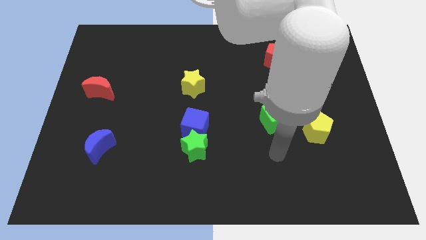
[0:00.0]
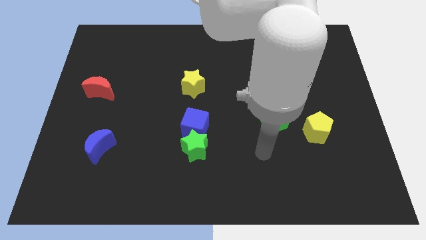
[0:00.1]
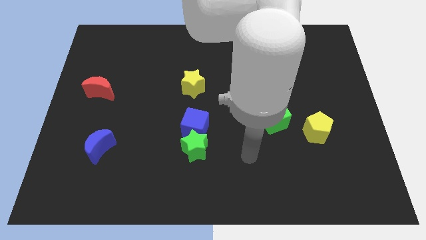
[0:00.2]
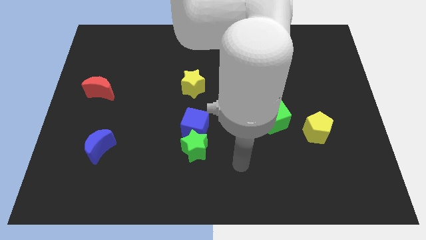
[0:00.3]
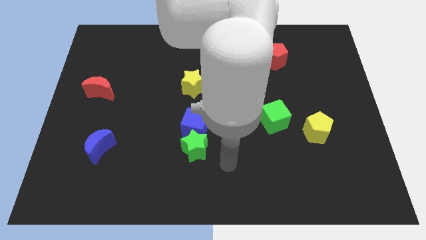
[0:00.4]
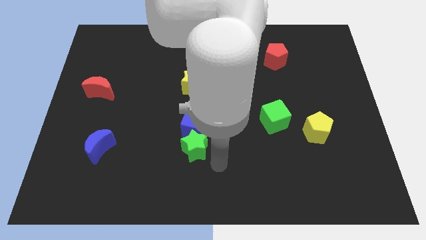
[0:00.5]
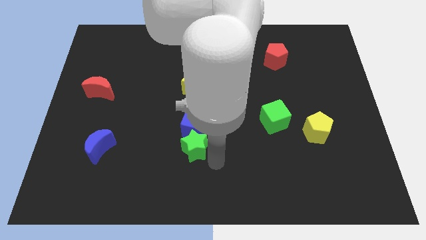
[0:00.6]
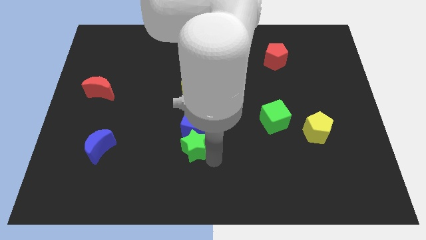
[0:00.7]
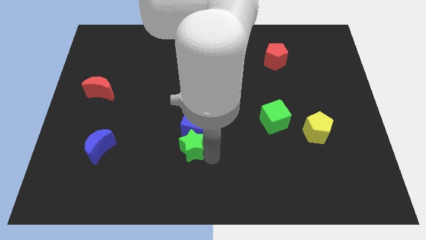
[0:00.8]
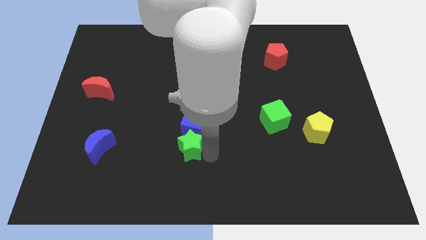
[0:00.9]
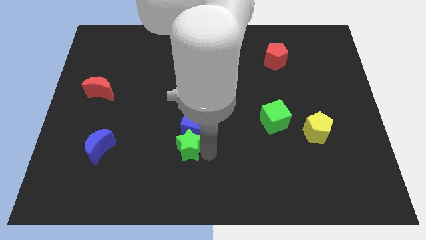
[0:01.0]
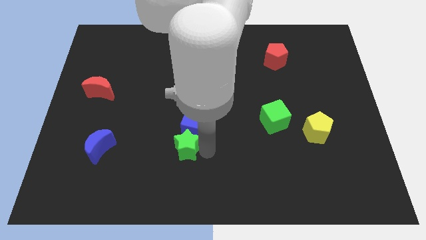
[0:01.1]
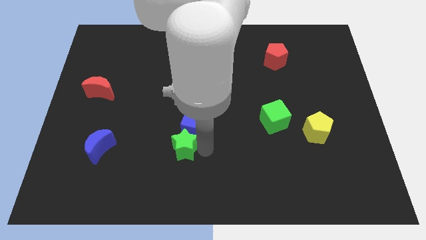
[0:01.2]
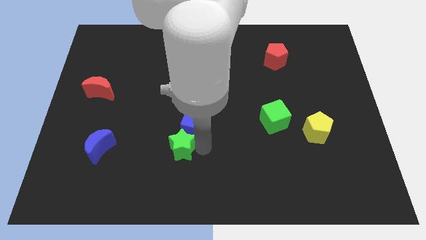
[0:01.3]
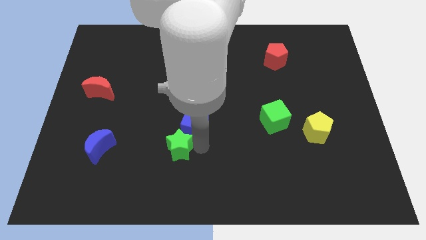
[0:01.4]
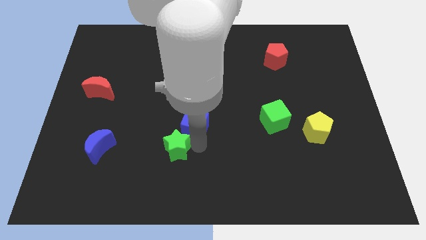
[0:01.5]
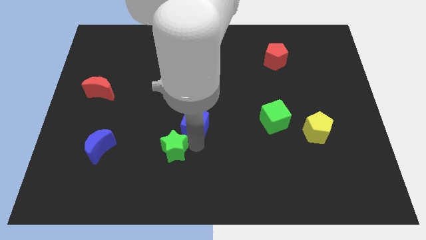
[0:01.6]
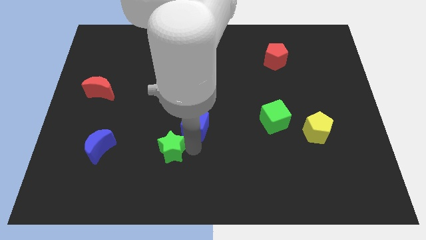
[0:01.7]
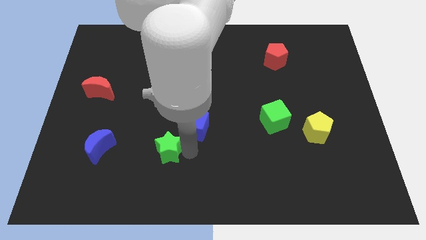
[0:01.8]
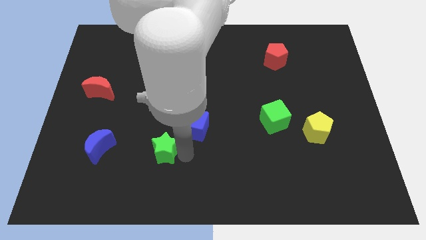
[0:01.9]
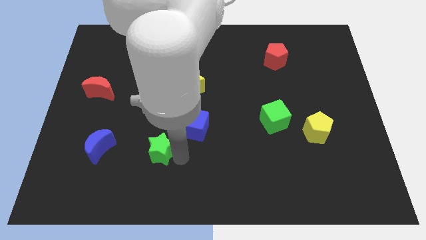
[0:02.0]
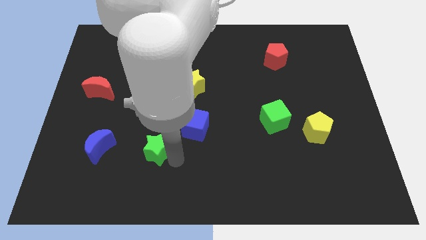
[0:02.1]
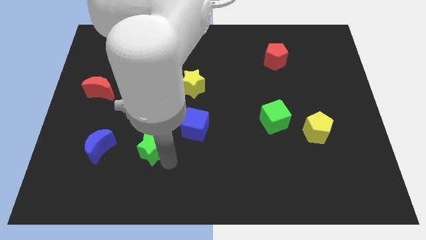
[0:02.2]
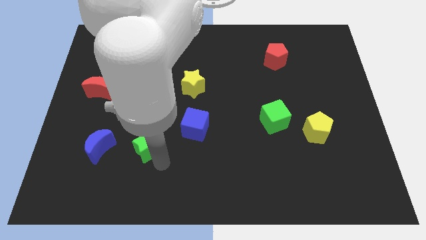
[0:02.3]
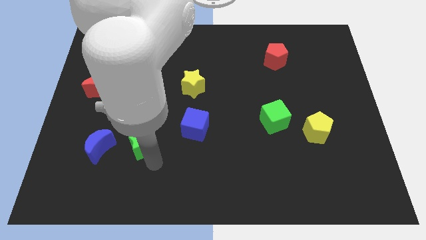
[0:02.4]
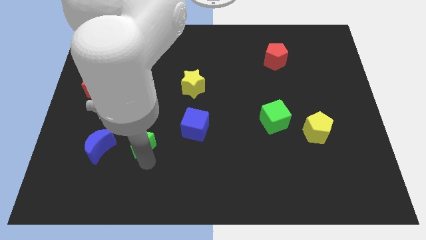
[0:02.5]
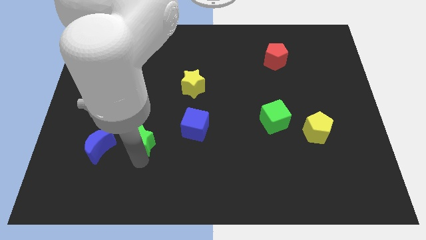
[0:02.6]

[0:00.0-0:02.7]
slightly move the green star upwards and to the left

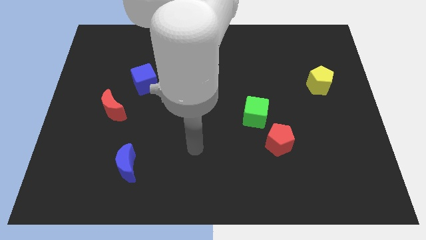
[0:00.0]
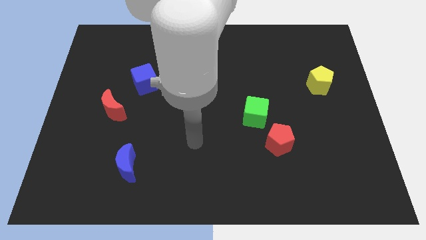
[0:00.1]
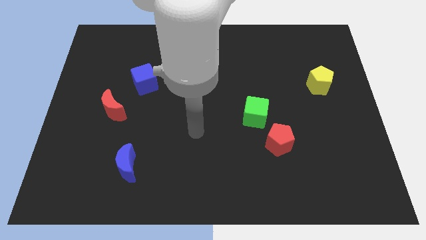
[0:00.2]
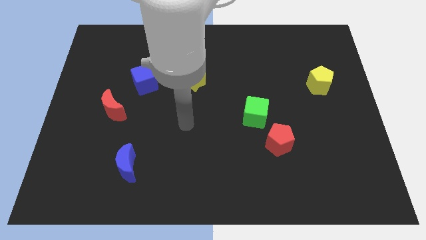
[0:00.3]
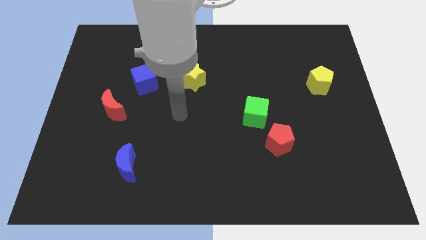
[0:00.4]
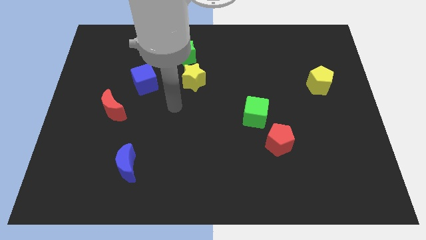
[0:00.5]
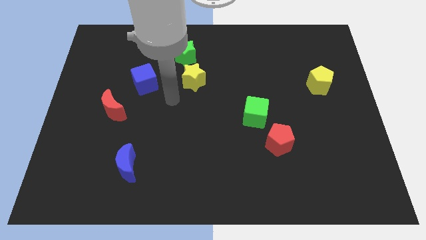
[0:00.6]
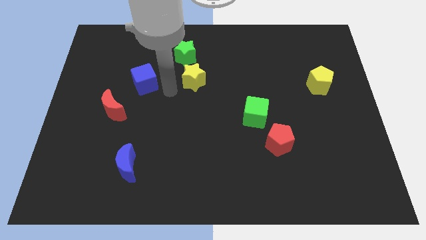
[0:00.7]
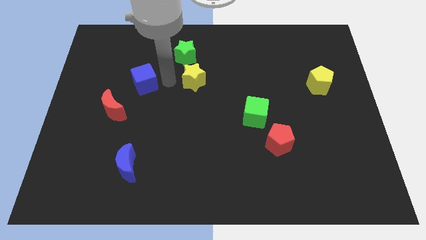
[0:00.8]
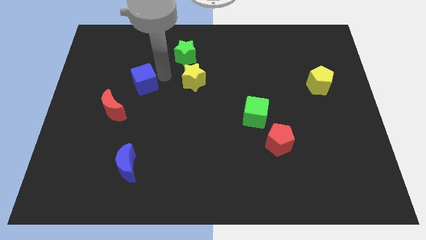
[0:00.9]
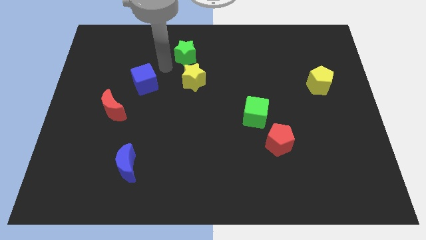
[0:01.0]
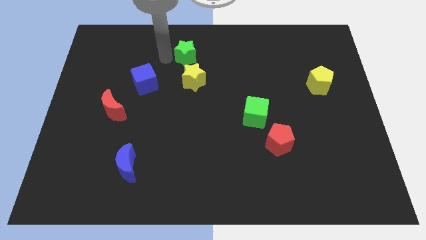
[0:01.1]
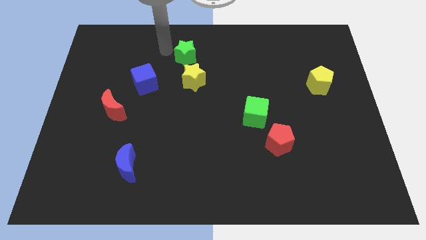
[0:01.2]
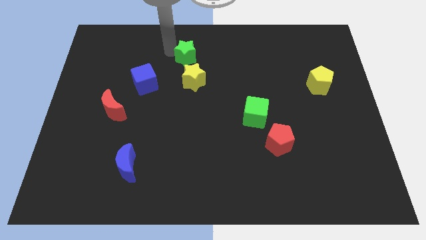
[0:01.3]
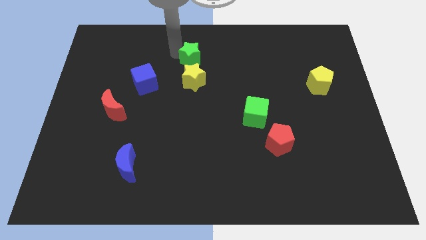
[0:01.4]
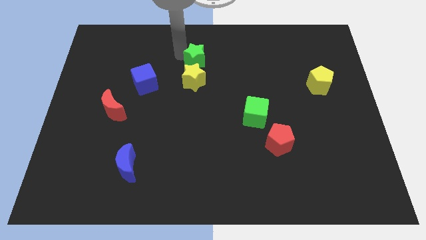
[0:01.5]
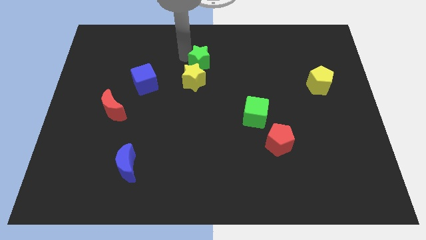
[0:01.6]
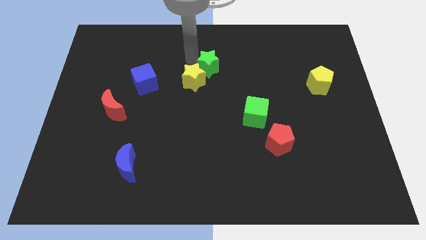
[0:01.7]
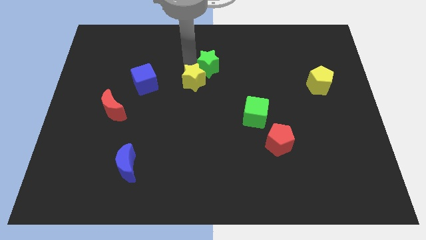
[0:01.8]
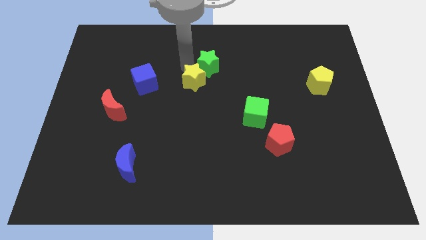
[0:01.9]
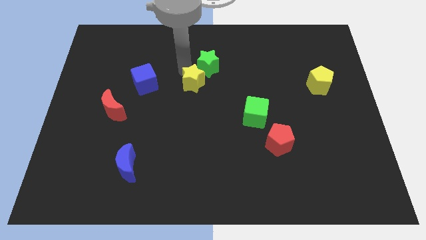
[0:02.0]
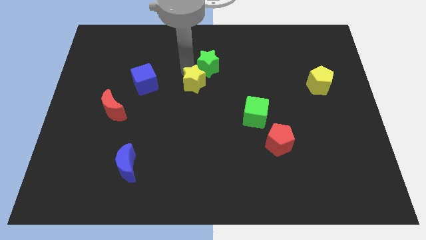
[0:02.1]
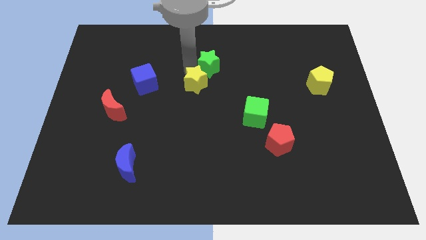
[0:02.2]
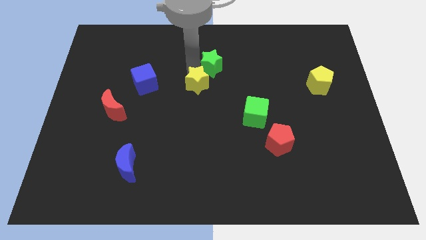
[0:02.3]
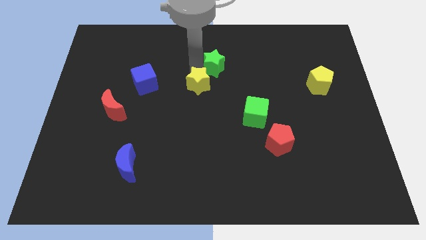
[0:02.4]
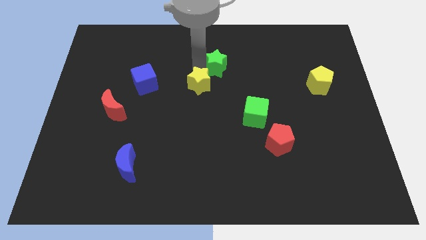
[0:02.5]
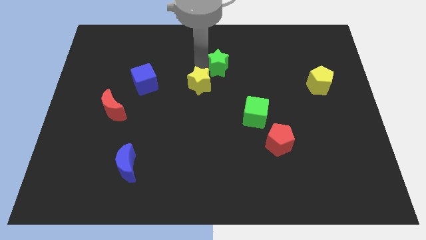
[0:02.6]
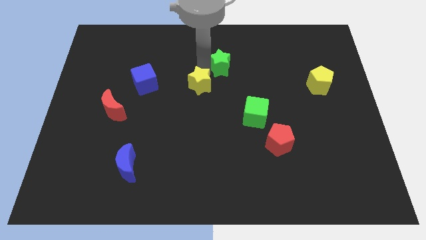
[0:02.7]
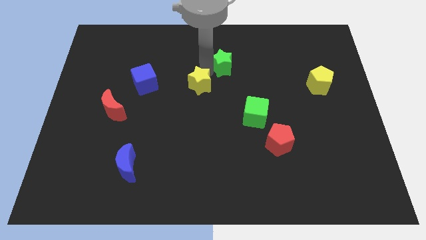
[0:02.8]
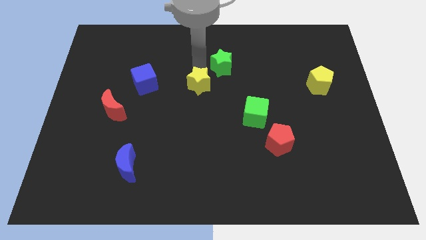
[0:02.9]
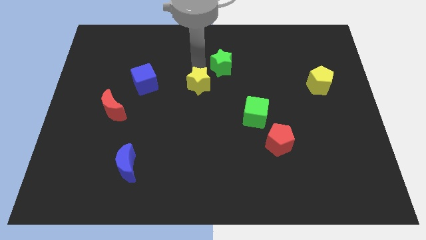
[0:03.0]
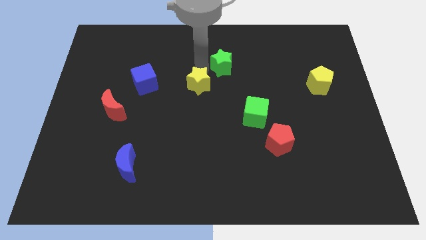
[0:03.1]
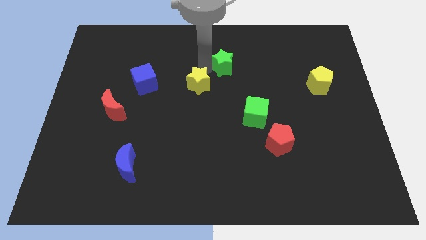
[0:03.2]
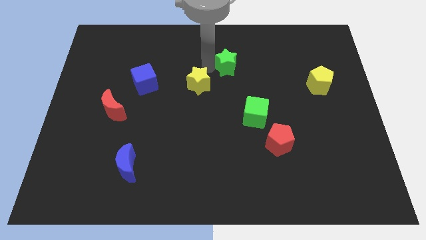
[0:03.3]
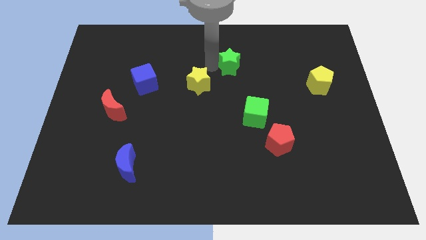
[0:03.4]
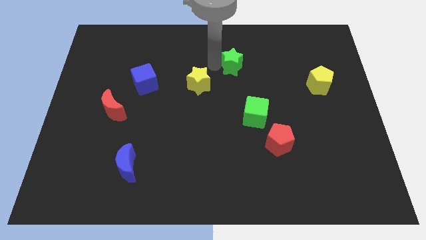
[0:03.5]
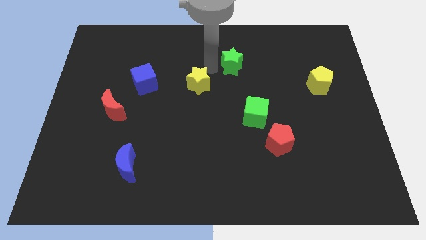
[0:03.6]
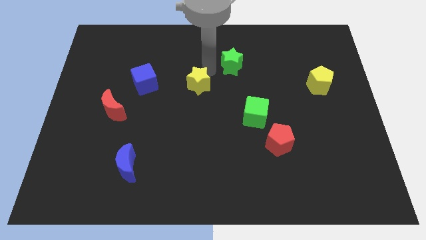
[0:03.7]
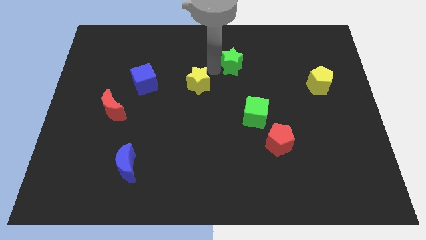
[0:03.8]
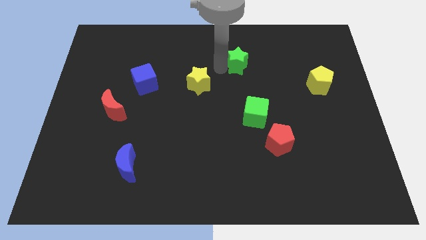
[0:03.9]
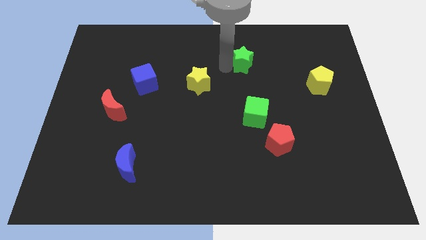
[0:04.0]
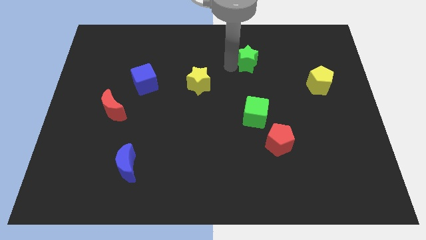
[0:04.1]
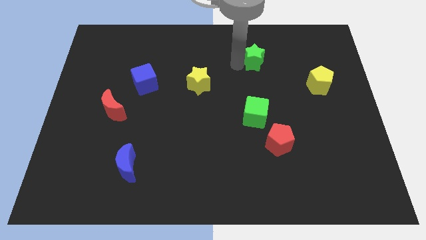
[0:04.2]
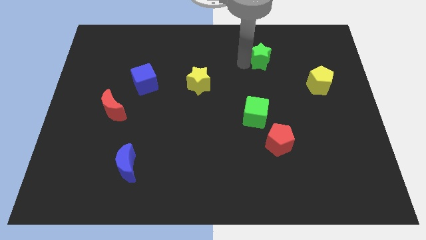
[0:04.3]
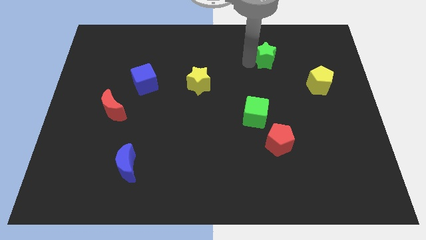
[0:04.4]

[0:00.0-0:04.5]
move the green star to the right

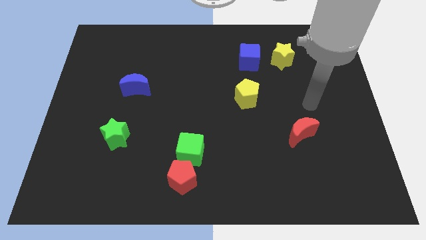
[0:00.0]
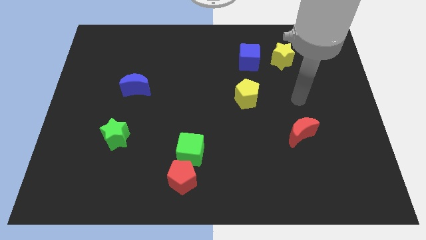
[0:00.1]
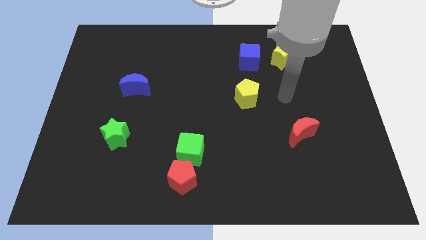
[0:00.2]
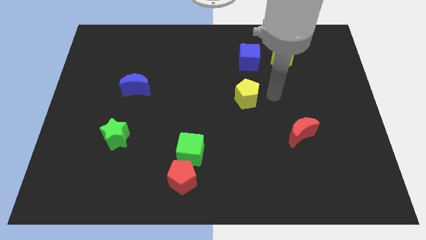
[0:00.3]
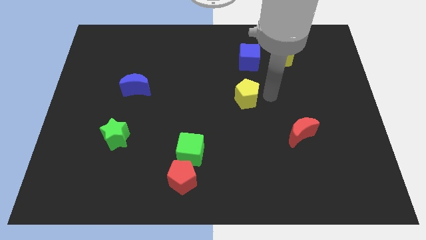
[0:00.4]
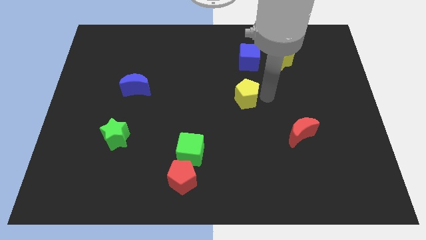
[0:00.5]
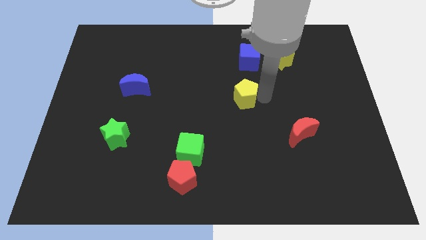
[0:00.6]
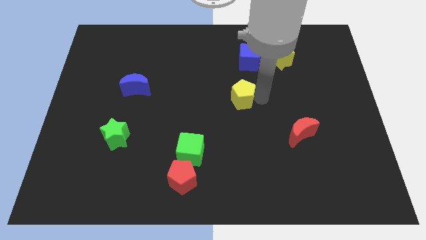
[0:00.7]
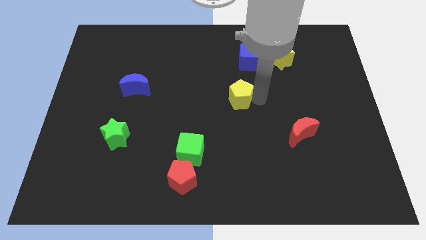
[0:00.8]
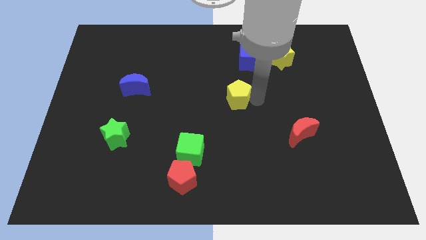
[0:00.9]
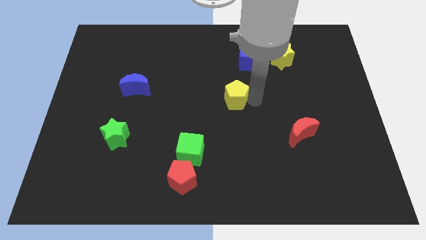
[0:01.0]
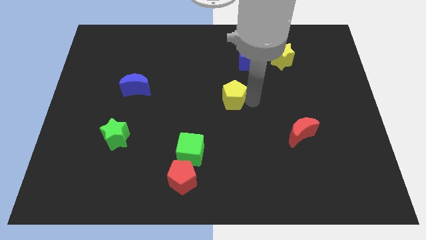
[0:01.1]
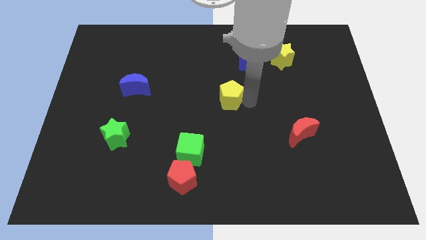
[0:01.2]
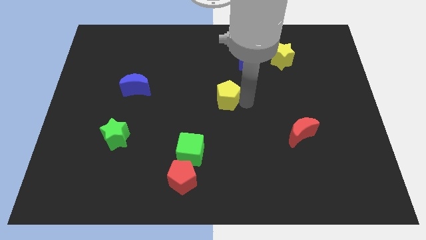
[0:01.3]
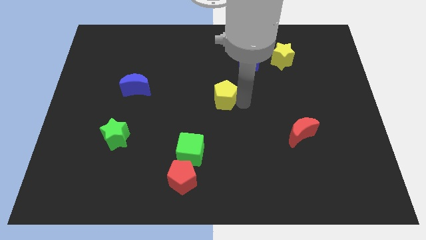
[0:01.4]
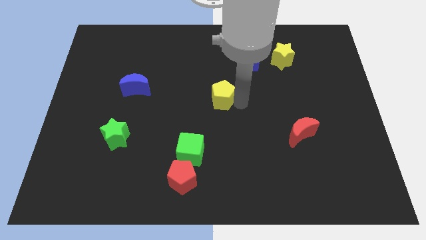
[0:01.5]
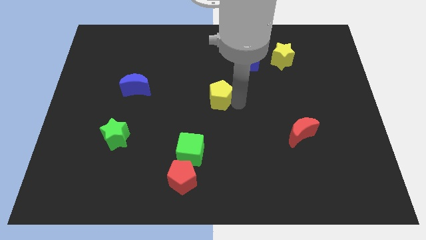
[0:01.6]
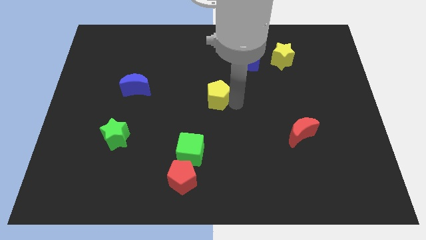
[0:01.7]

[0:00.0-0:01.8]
move the yellow pentagon slightly to the left
